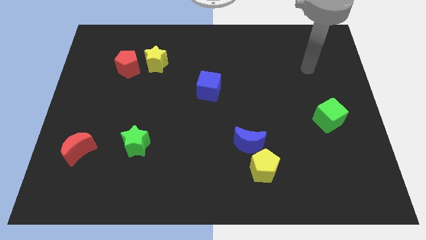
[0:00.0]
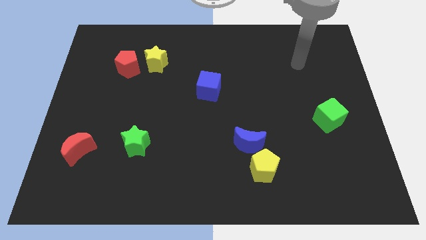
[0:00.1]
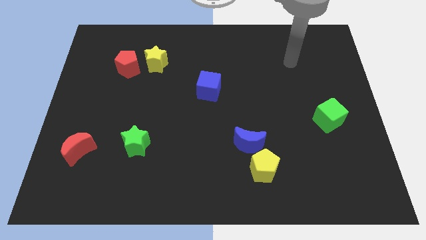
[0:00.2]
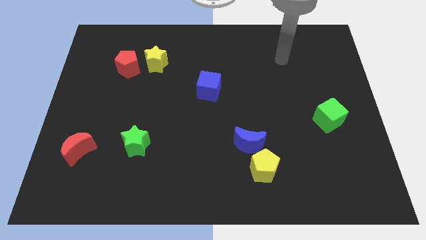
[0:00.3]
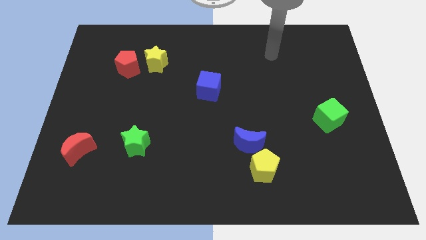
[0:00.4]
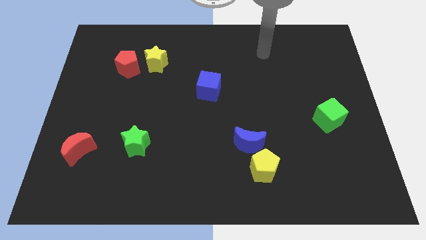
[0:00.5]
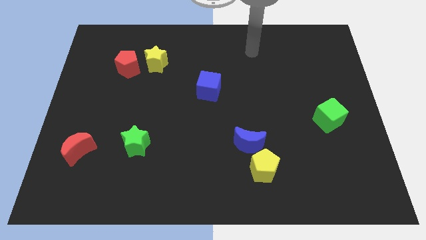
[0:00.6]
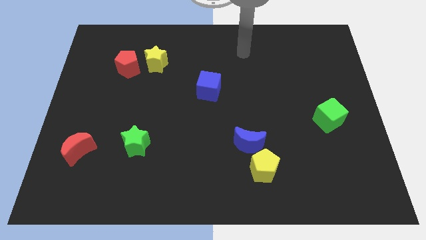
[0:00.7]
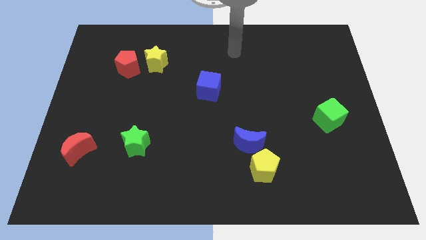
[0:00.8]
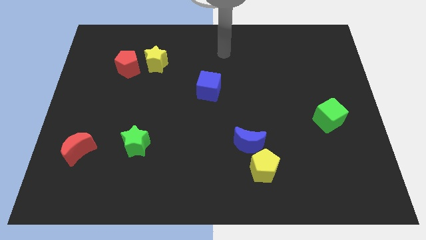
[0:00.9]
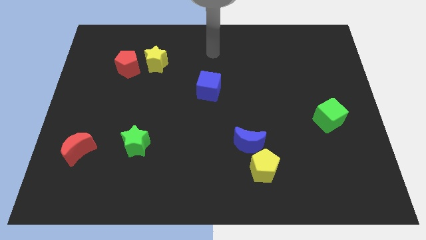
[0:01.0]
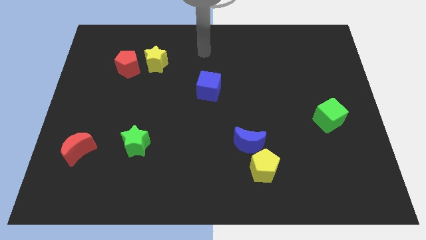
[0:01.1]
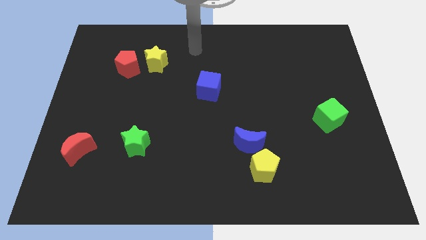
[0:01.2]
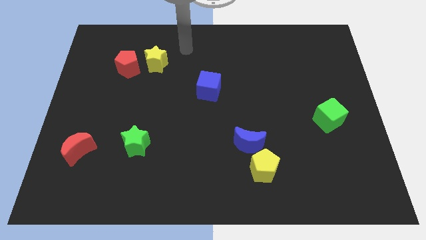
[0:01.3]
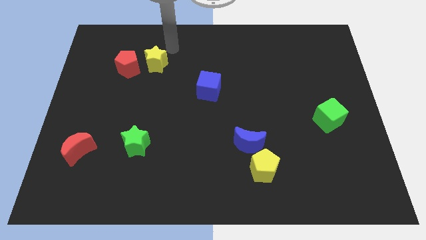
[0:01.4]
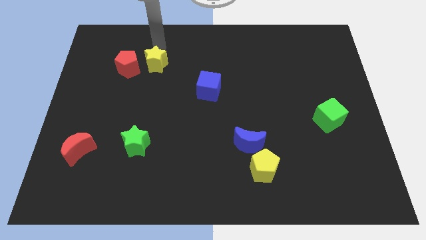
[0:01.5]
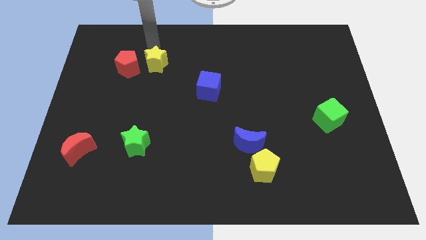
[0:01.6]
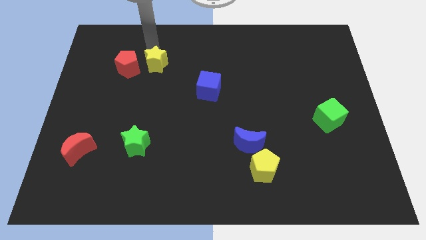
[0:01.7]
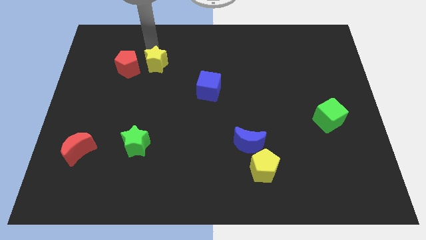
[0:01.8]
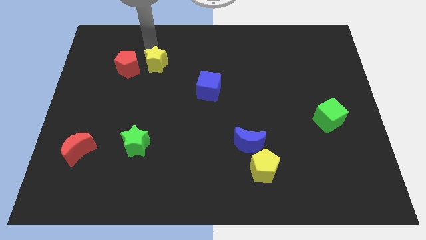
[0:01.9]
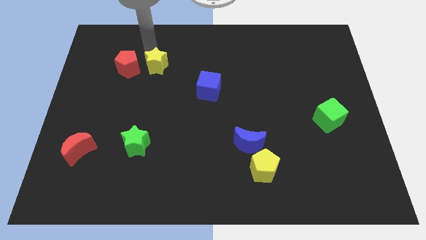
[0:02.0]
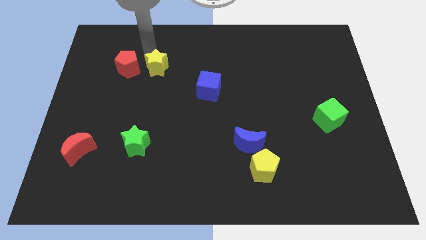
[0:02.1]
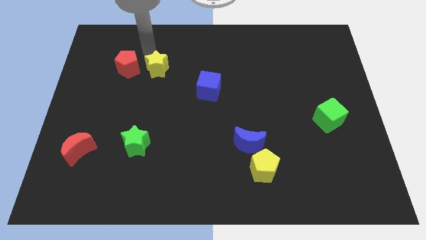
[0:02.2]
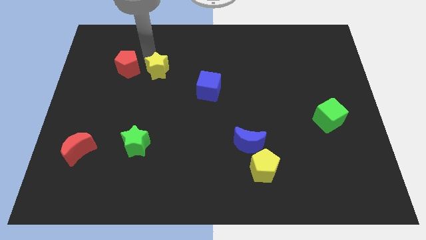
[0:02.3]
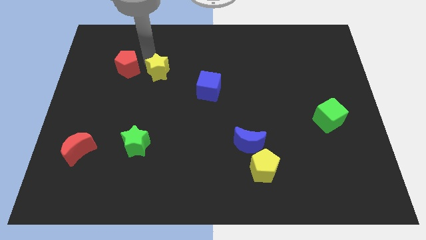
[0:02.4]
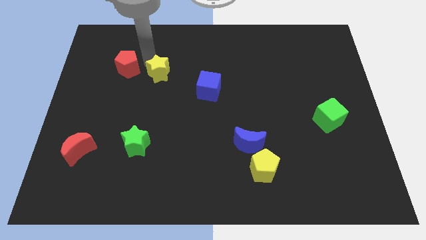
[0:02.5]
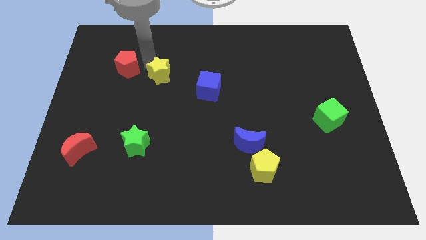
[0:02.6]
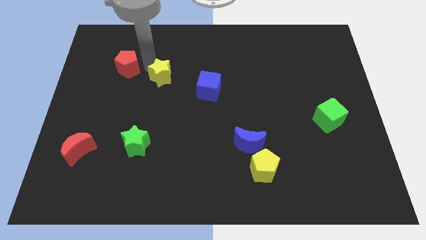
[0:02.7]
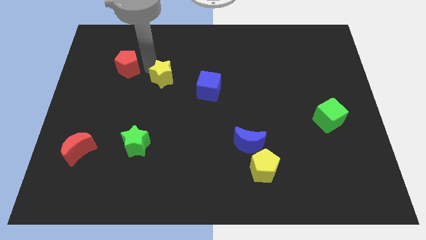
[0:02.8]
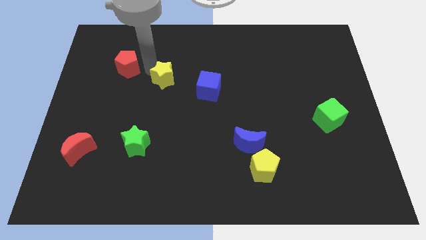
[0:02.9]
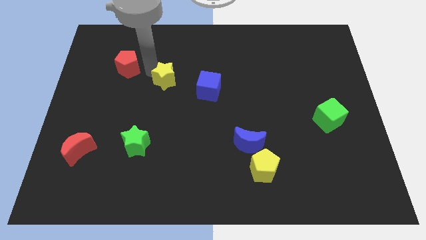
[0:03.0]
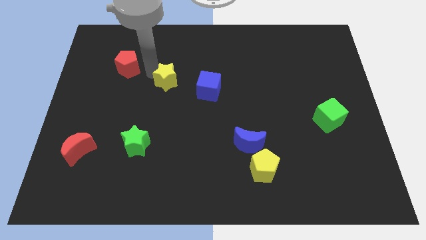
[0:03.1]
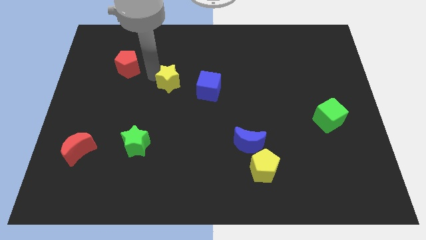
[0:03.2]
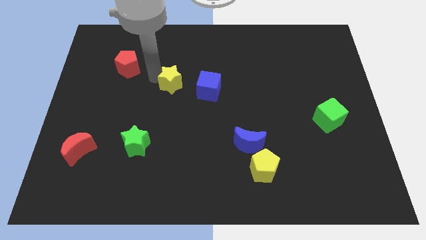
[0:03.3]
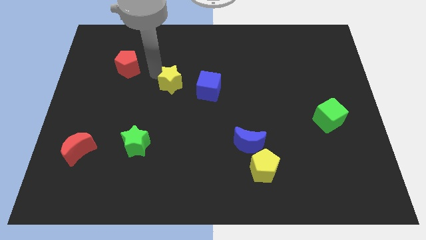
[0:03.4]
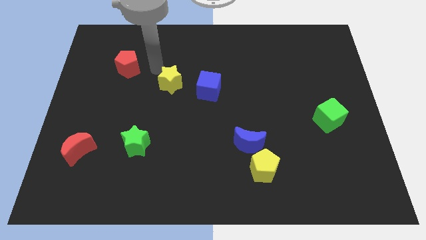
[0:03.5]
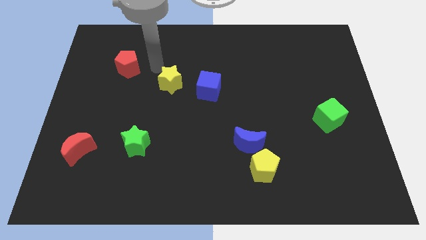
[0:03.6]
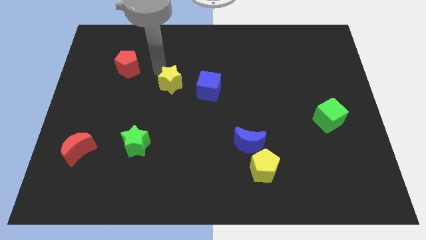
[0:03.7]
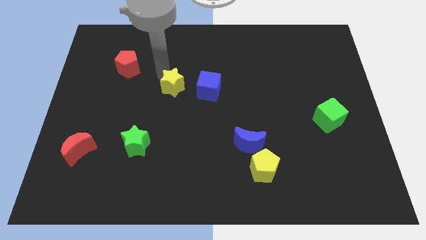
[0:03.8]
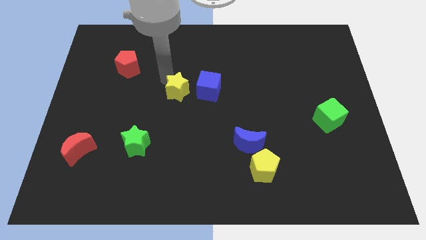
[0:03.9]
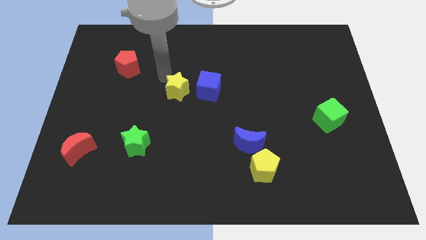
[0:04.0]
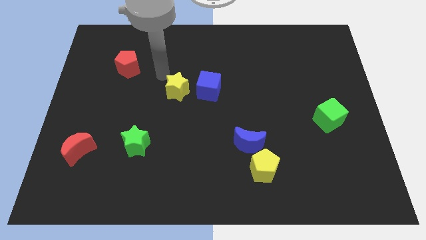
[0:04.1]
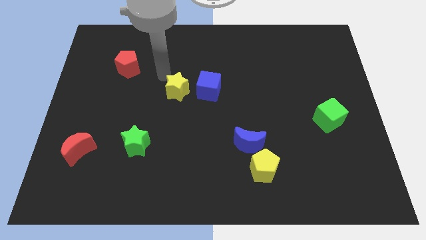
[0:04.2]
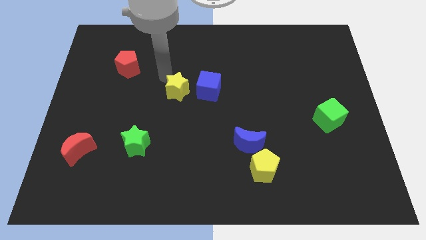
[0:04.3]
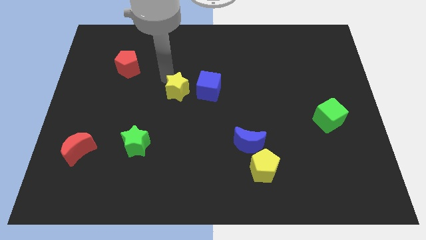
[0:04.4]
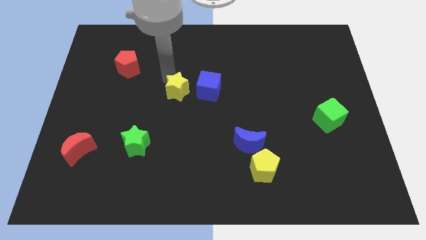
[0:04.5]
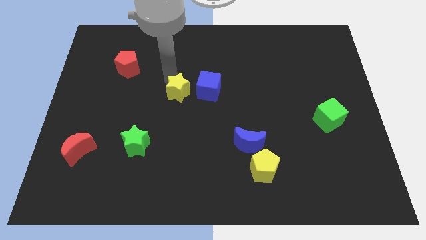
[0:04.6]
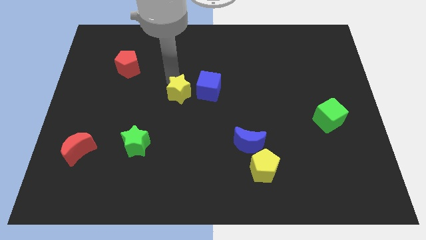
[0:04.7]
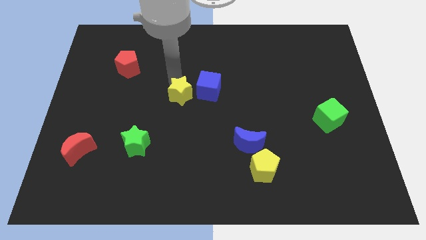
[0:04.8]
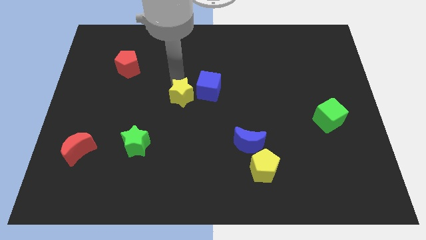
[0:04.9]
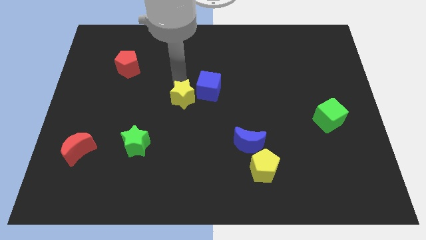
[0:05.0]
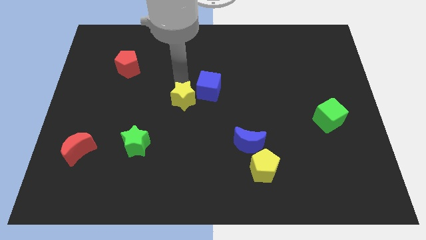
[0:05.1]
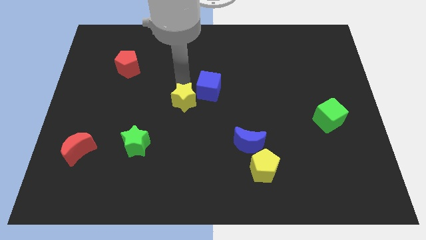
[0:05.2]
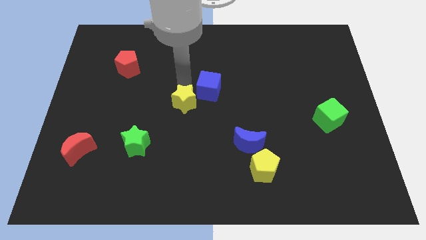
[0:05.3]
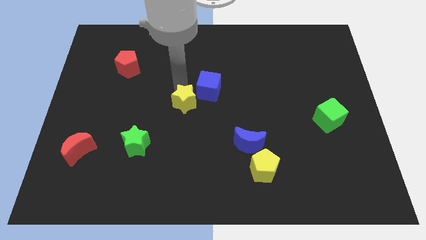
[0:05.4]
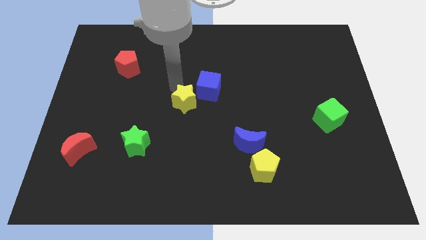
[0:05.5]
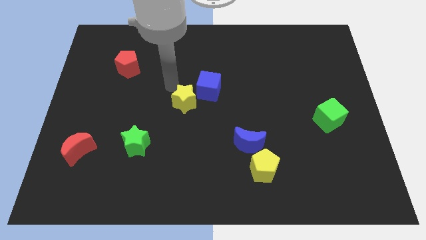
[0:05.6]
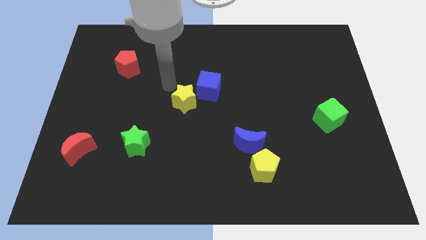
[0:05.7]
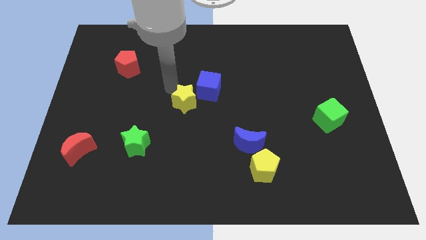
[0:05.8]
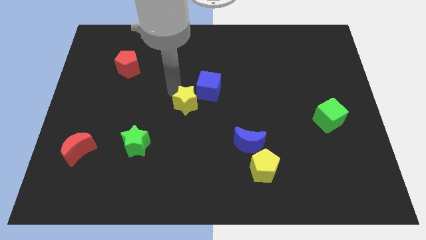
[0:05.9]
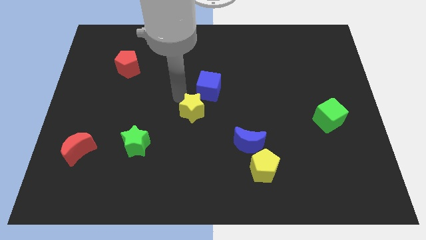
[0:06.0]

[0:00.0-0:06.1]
put the yellow star to the bottom side of the blue cube

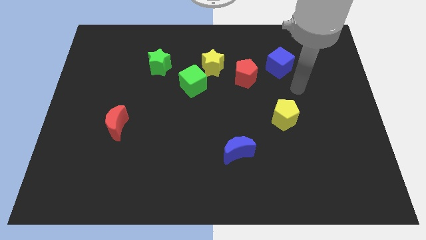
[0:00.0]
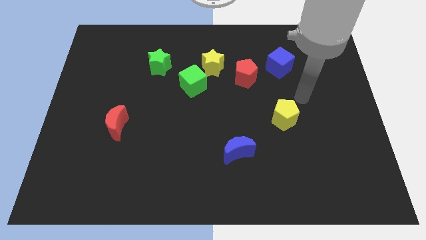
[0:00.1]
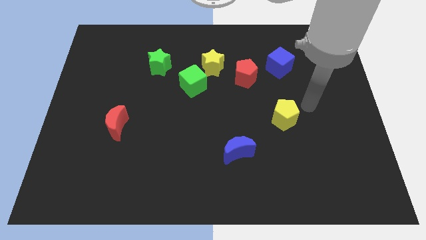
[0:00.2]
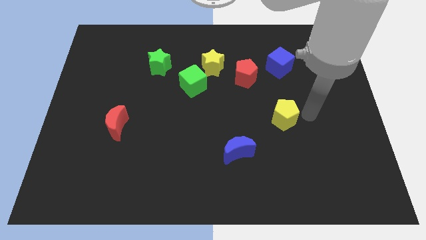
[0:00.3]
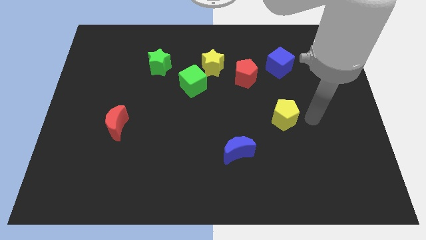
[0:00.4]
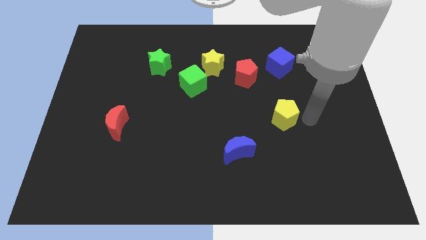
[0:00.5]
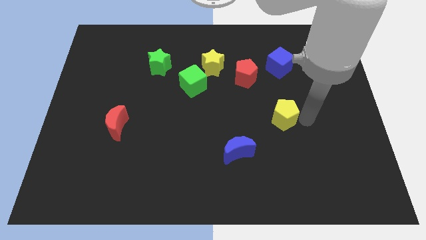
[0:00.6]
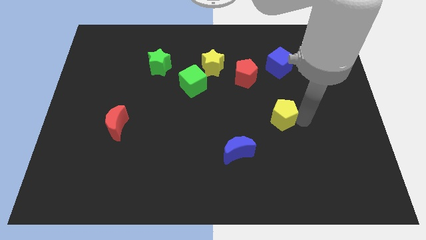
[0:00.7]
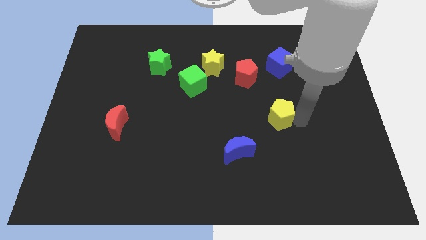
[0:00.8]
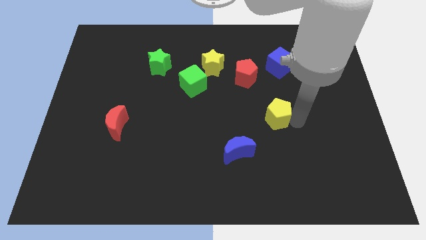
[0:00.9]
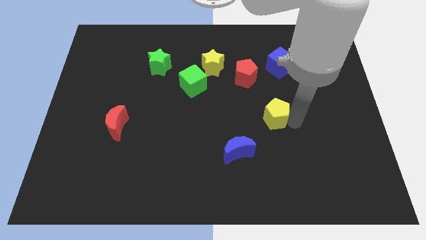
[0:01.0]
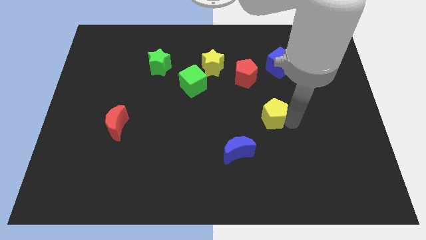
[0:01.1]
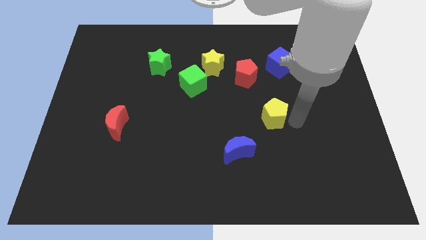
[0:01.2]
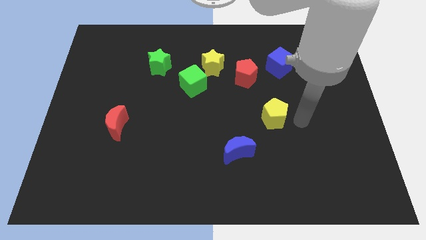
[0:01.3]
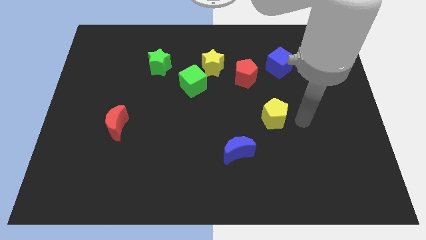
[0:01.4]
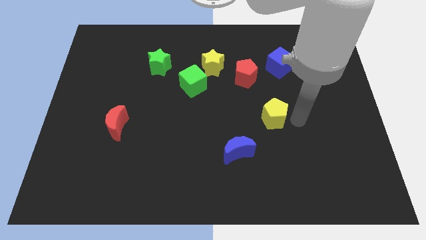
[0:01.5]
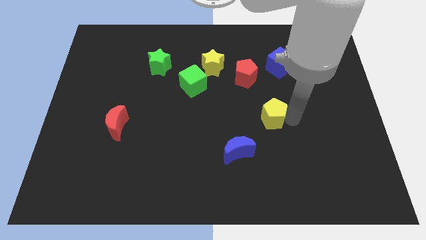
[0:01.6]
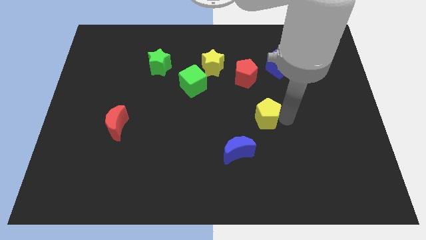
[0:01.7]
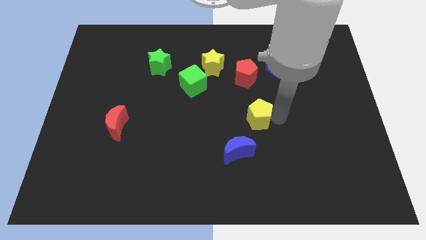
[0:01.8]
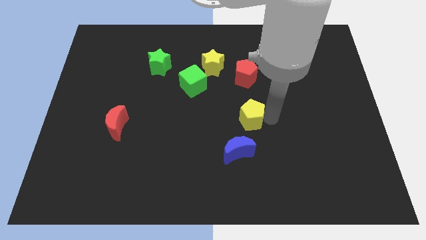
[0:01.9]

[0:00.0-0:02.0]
push the yellow pentagon to the top side of the blue moon

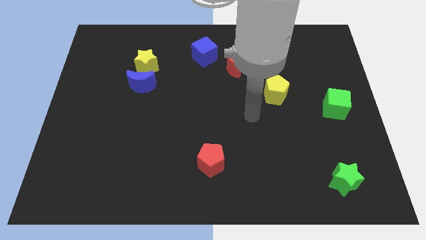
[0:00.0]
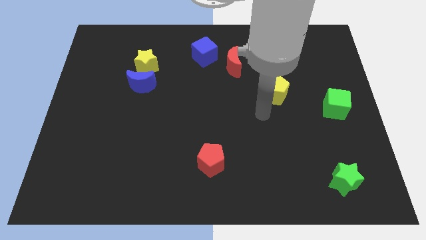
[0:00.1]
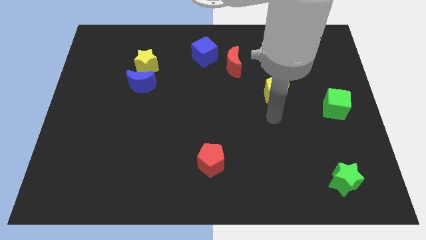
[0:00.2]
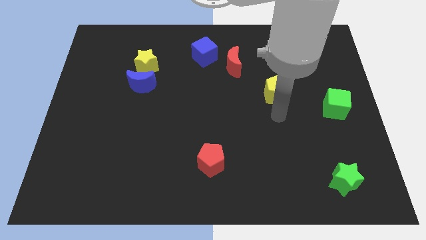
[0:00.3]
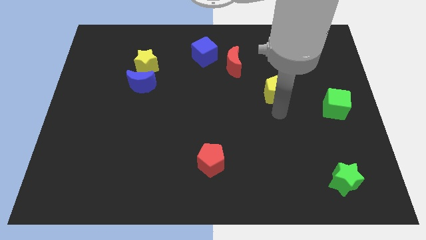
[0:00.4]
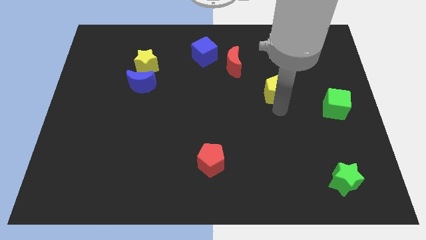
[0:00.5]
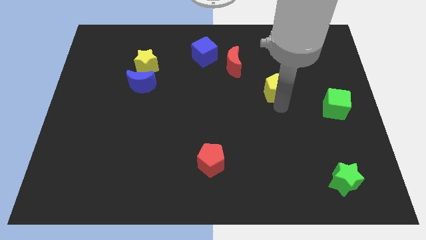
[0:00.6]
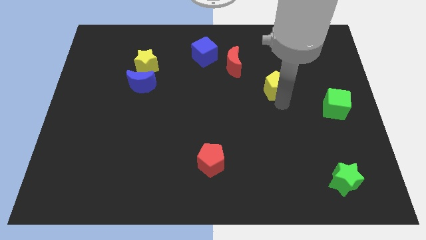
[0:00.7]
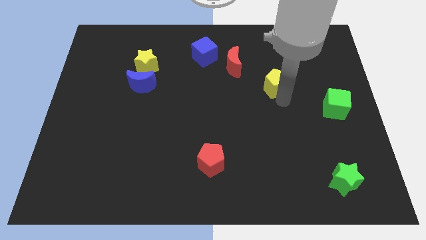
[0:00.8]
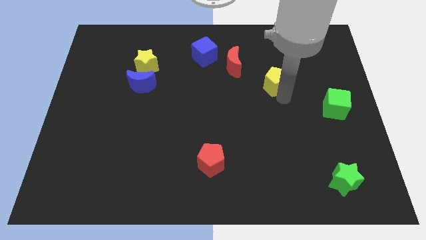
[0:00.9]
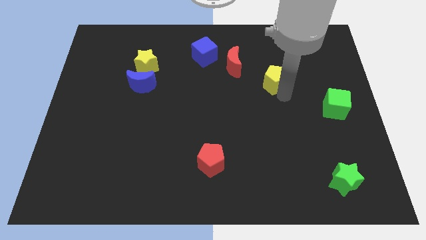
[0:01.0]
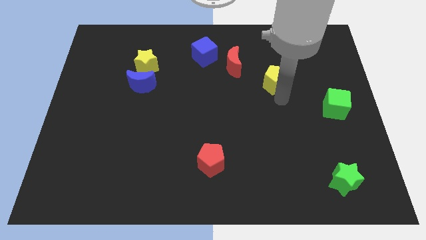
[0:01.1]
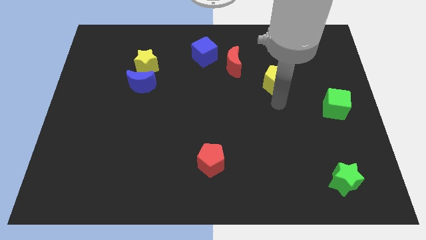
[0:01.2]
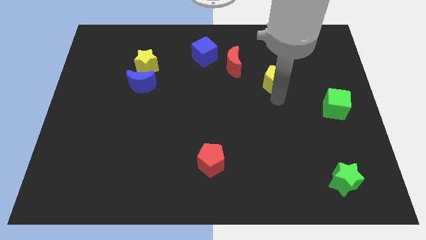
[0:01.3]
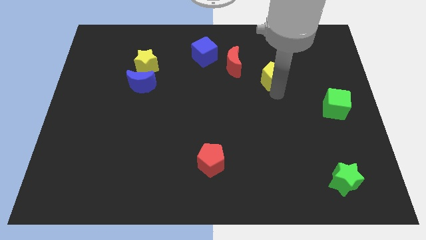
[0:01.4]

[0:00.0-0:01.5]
slide the yellow pentagon to the right of the red moon
